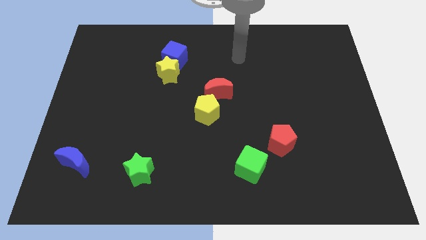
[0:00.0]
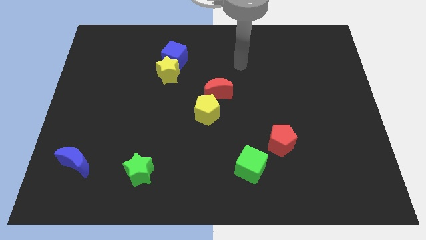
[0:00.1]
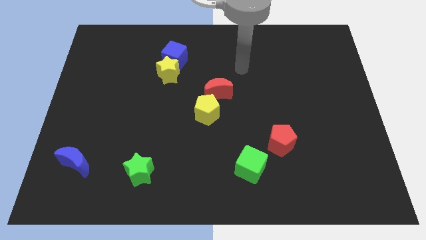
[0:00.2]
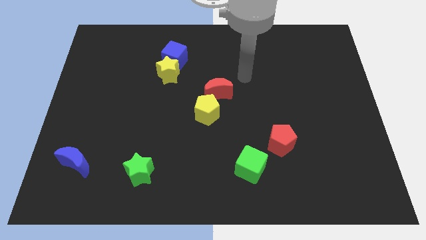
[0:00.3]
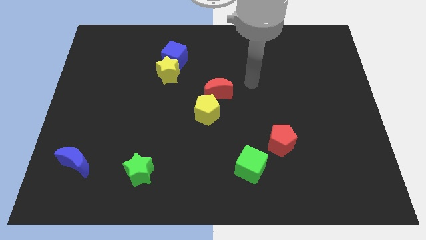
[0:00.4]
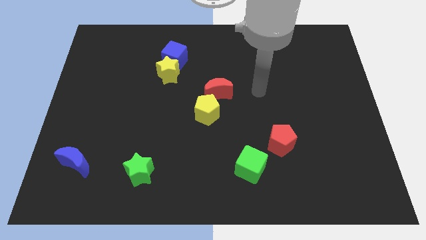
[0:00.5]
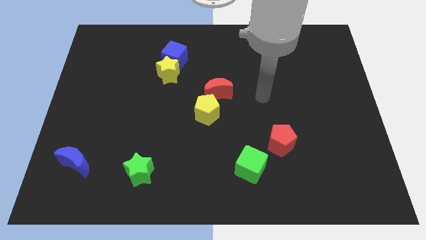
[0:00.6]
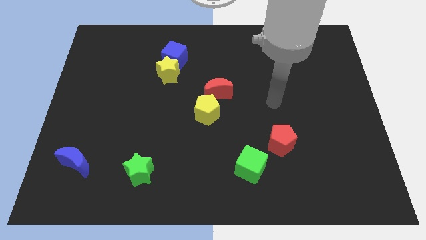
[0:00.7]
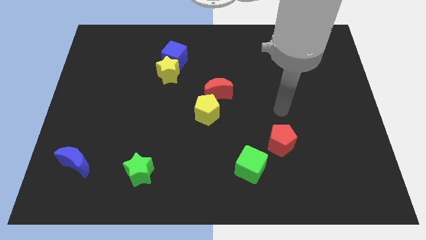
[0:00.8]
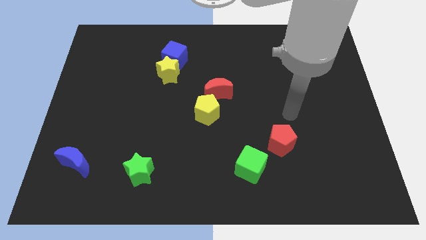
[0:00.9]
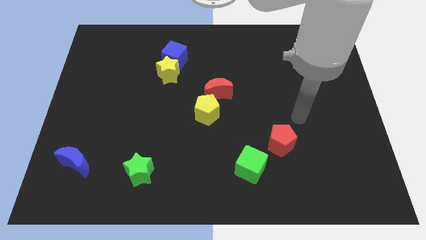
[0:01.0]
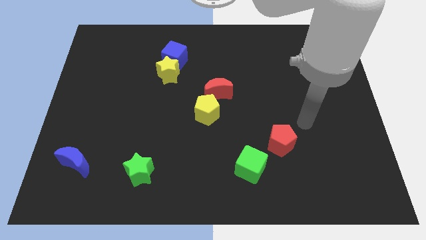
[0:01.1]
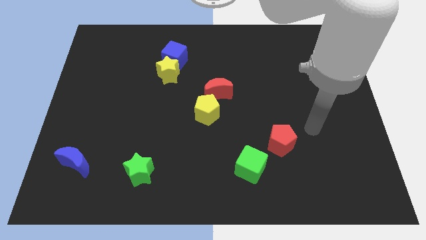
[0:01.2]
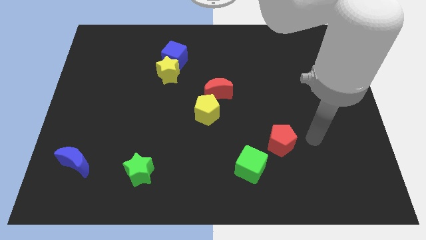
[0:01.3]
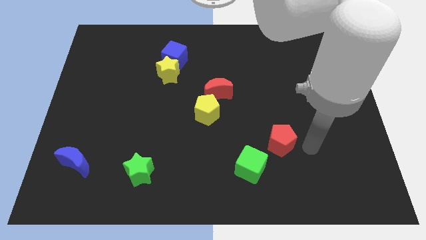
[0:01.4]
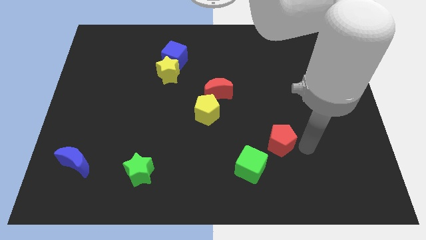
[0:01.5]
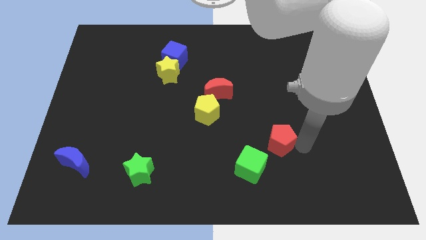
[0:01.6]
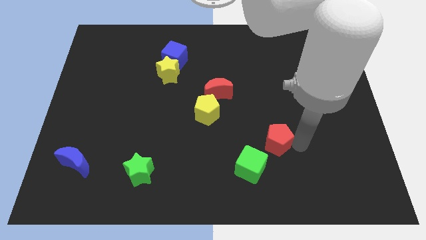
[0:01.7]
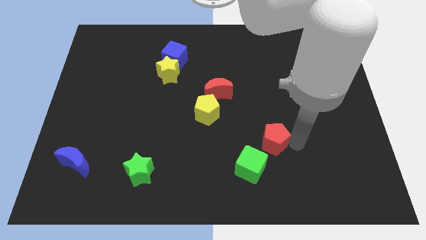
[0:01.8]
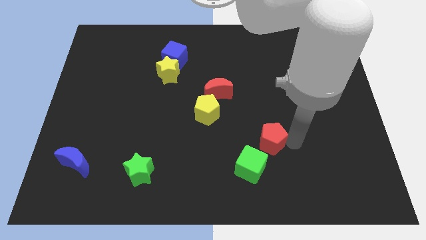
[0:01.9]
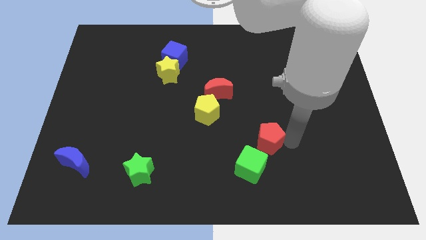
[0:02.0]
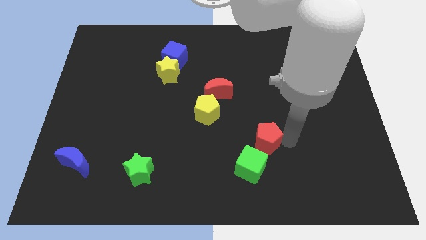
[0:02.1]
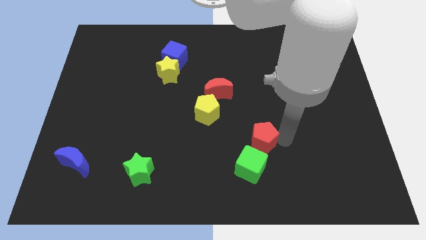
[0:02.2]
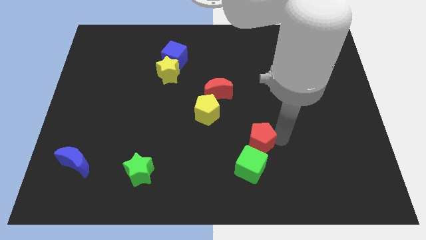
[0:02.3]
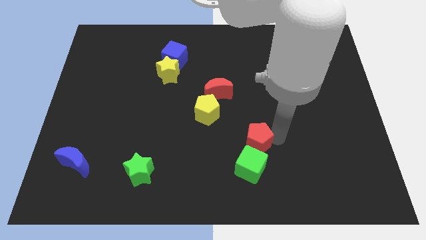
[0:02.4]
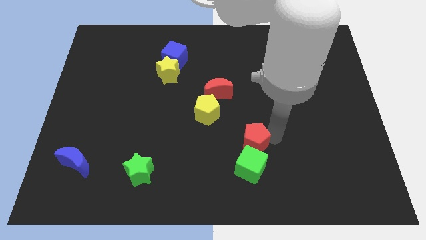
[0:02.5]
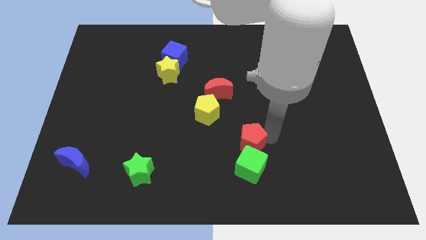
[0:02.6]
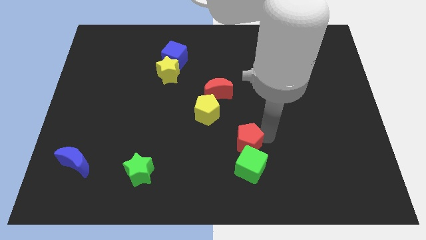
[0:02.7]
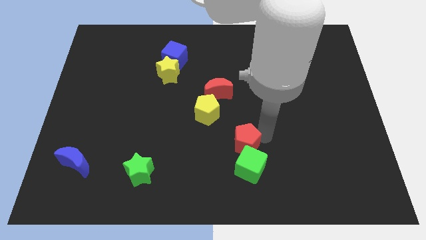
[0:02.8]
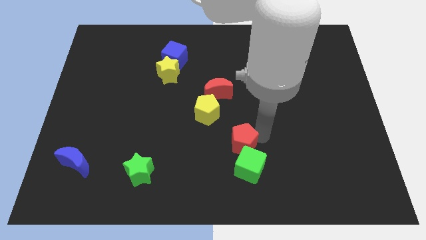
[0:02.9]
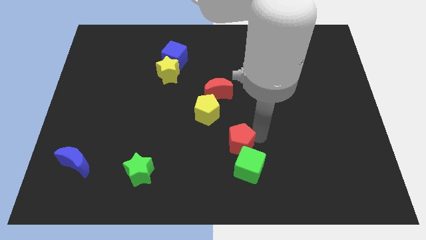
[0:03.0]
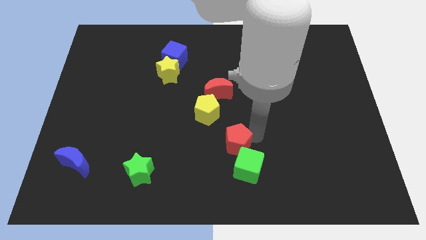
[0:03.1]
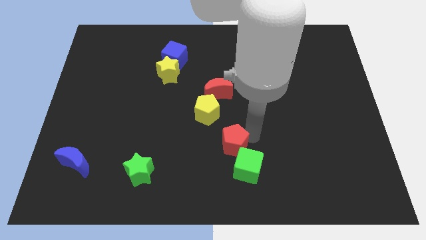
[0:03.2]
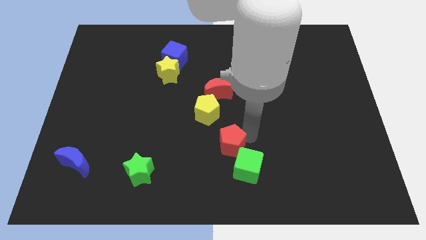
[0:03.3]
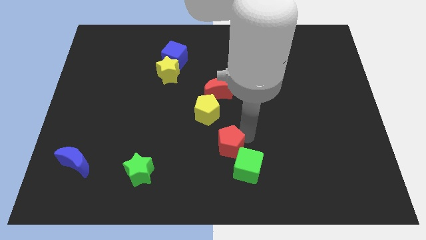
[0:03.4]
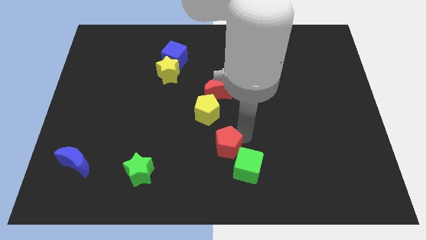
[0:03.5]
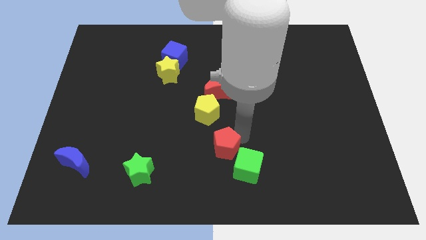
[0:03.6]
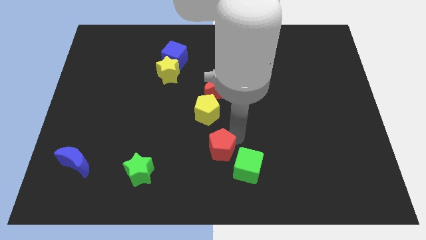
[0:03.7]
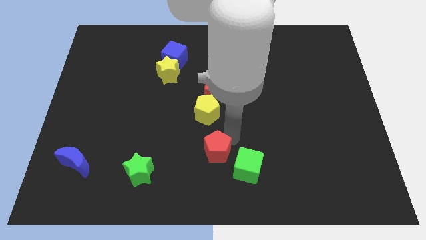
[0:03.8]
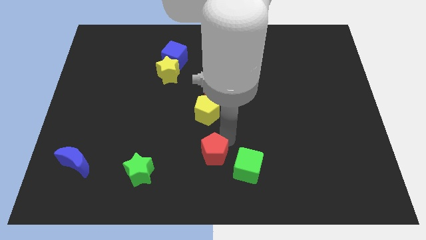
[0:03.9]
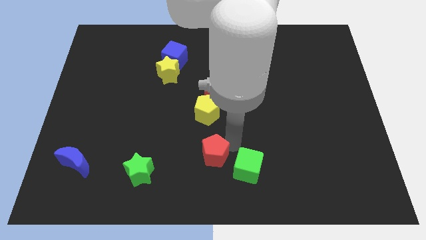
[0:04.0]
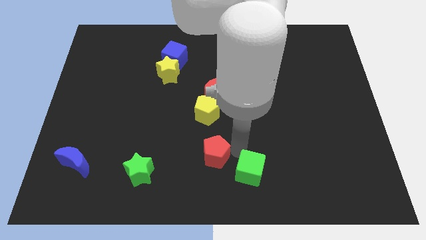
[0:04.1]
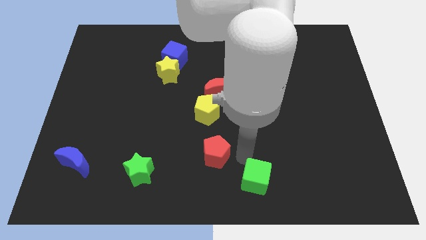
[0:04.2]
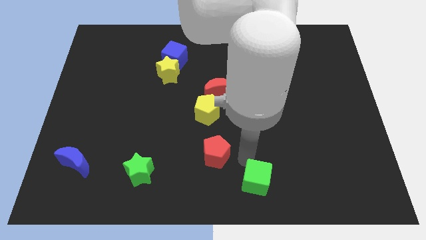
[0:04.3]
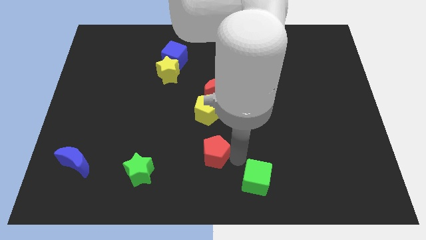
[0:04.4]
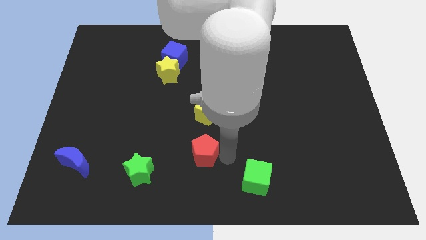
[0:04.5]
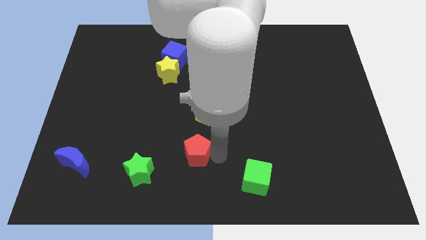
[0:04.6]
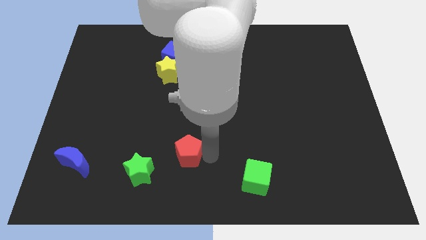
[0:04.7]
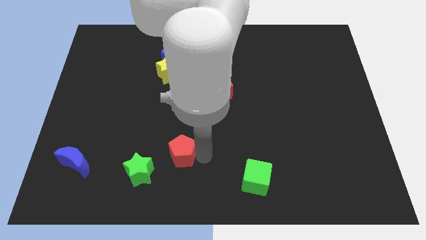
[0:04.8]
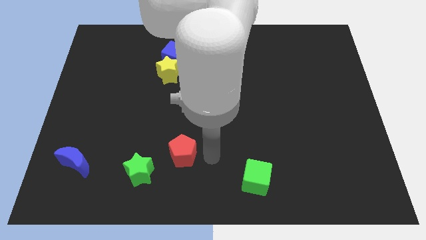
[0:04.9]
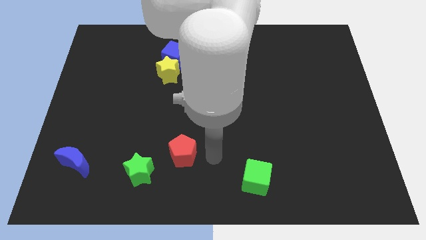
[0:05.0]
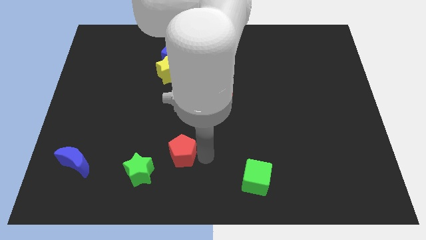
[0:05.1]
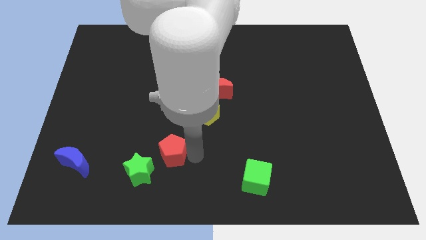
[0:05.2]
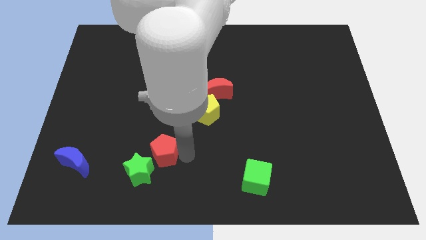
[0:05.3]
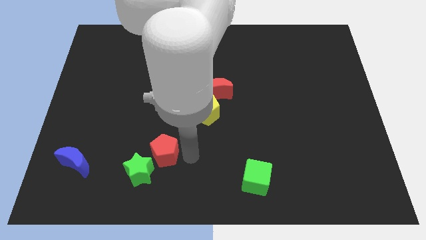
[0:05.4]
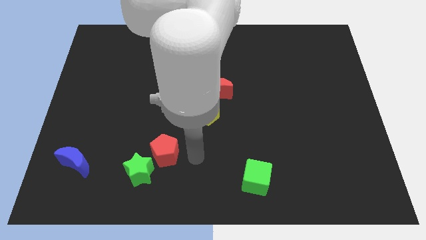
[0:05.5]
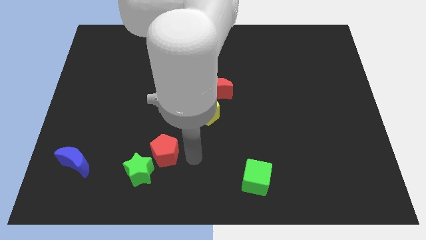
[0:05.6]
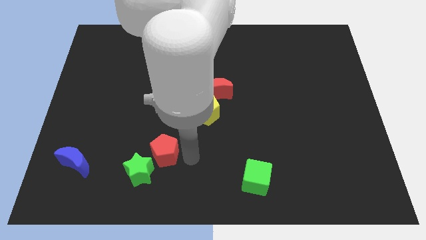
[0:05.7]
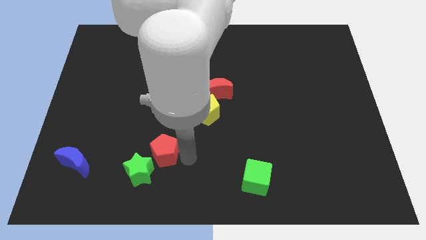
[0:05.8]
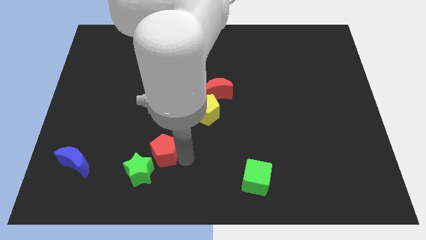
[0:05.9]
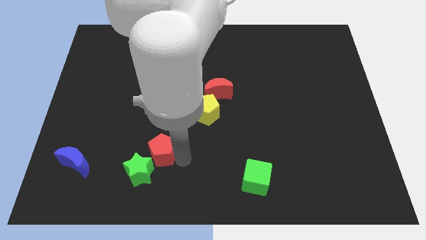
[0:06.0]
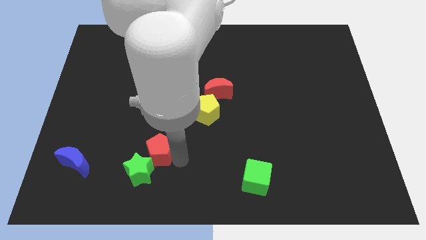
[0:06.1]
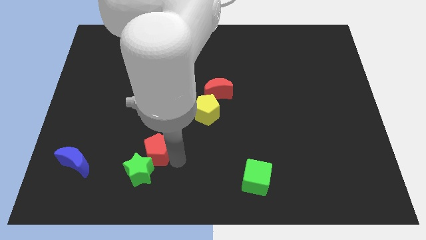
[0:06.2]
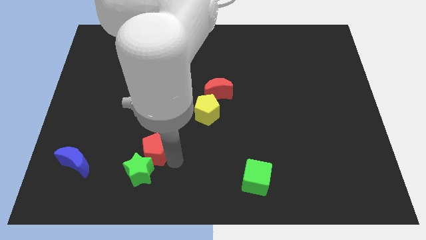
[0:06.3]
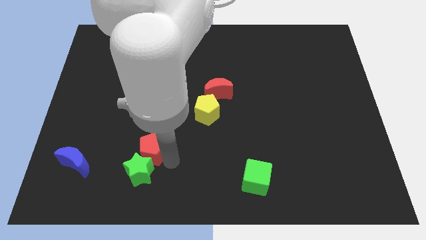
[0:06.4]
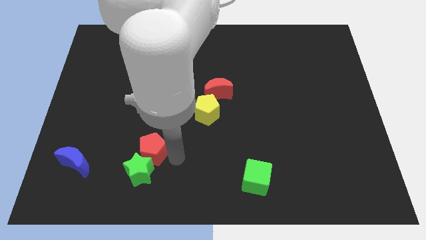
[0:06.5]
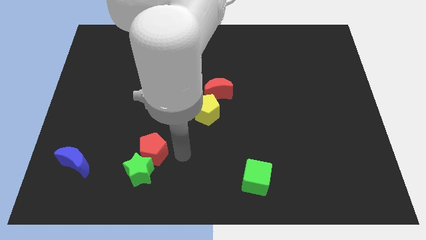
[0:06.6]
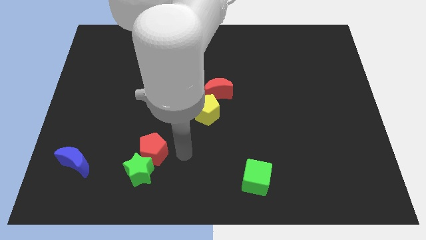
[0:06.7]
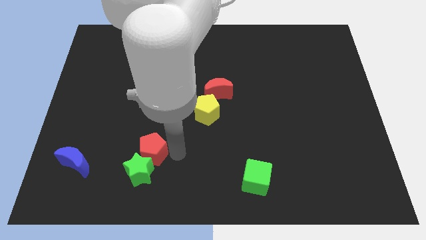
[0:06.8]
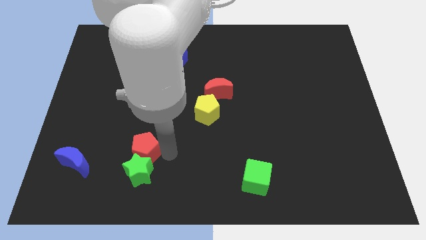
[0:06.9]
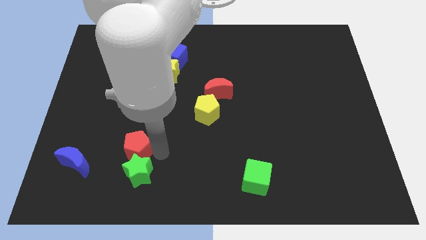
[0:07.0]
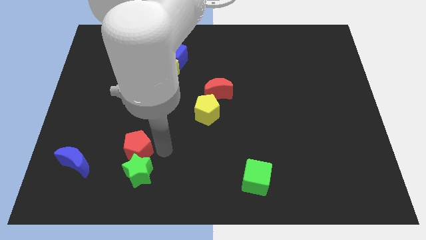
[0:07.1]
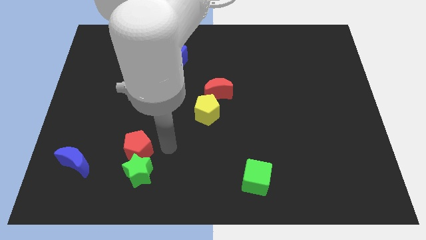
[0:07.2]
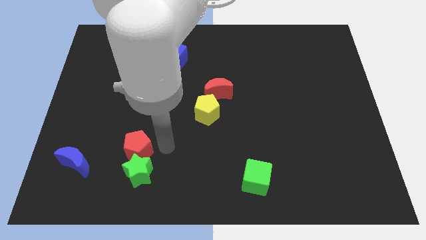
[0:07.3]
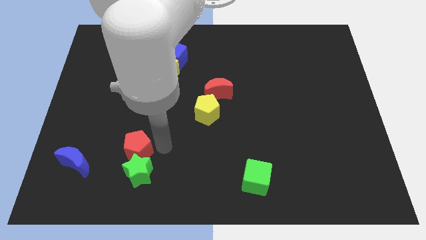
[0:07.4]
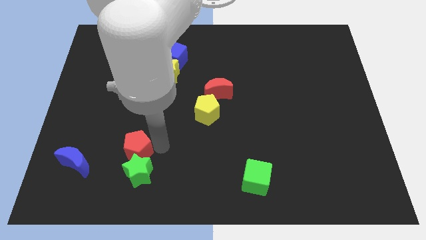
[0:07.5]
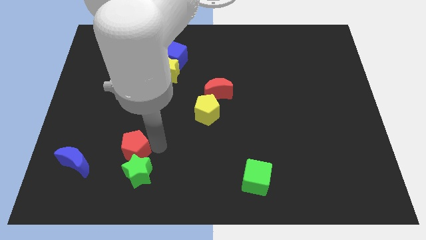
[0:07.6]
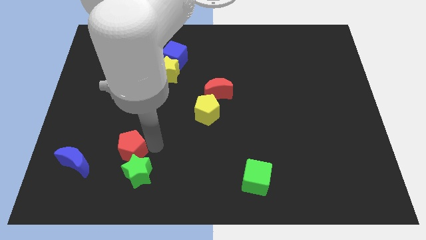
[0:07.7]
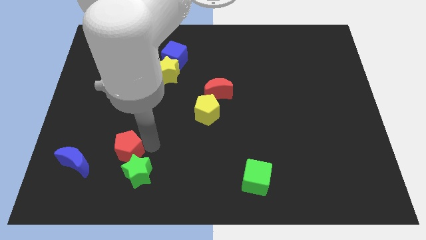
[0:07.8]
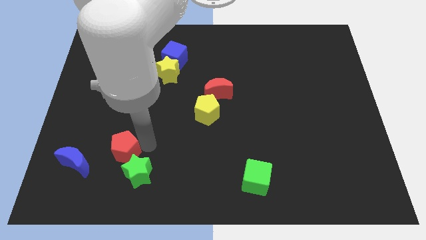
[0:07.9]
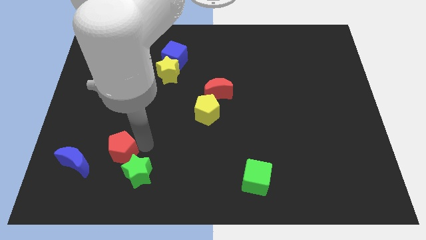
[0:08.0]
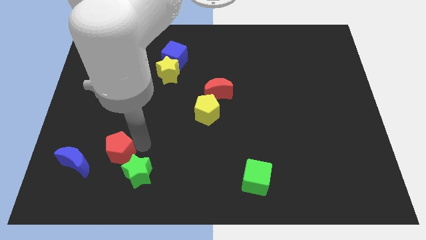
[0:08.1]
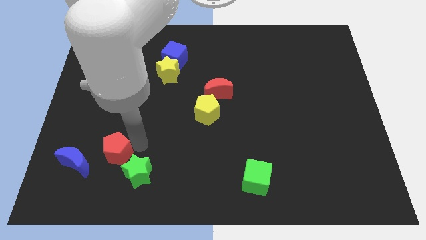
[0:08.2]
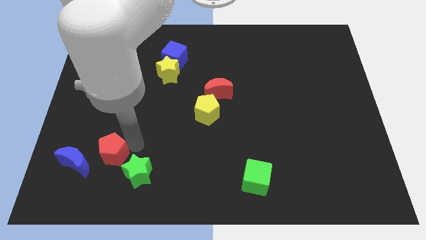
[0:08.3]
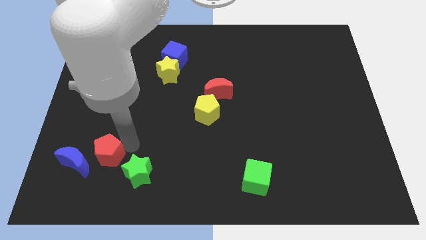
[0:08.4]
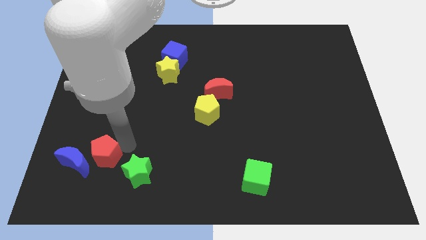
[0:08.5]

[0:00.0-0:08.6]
push the red pentagon next to the blue moon
